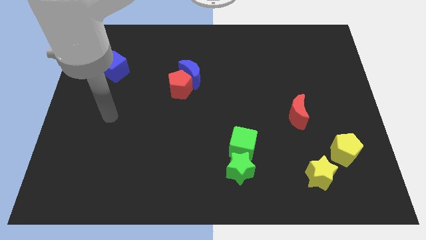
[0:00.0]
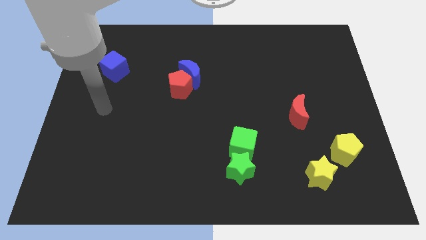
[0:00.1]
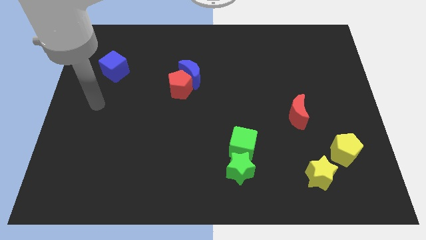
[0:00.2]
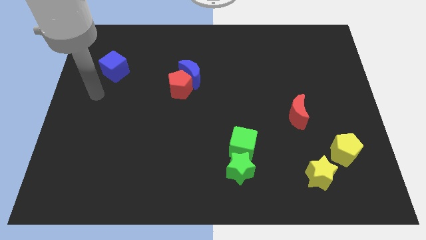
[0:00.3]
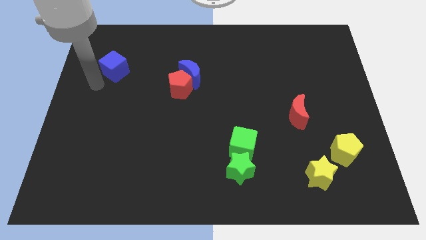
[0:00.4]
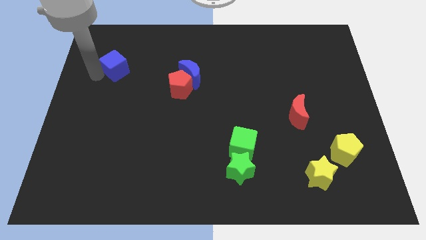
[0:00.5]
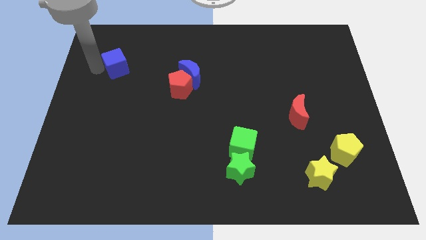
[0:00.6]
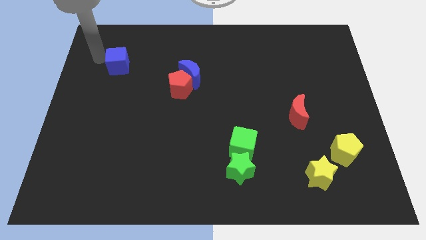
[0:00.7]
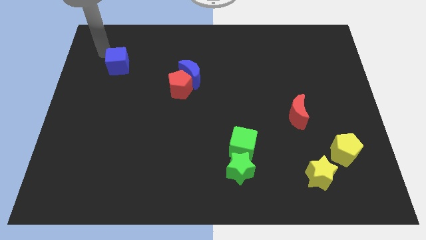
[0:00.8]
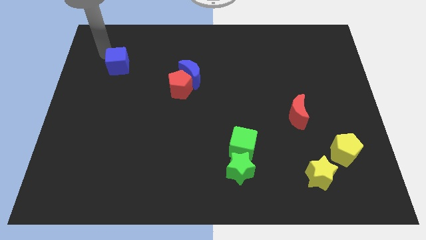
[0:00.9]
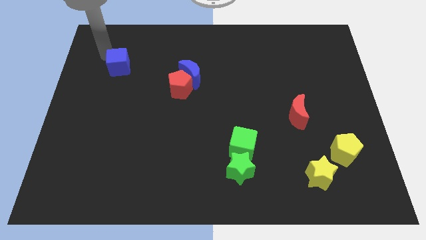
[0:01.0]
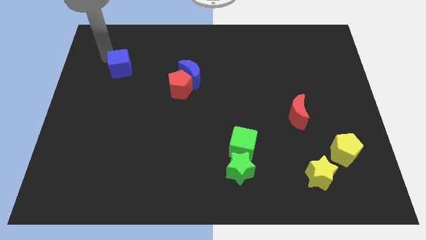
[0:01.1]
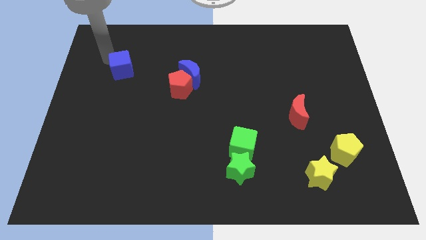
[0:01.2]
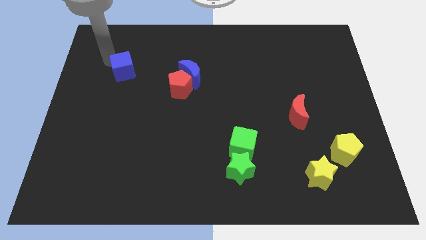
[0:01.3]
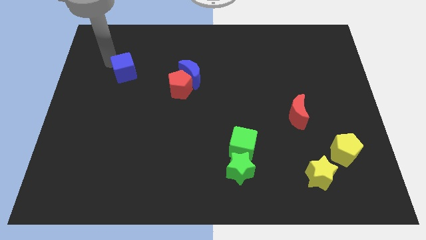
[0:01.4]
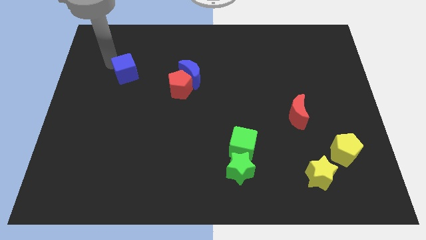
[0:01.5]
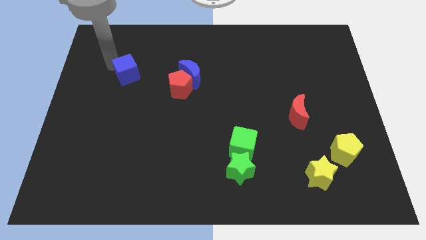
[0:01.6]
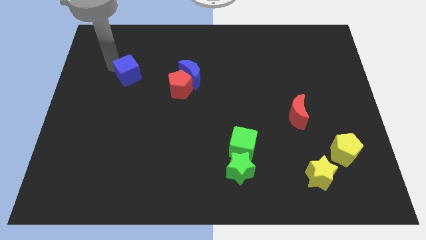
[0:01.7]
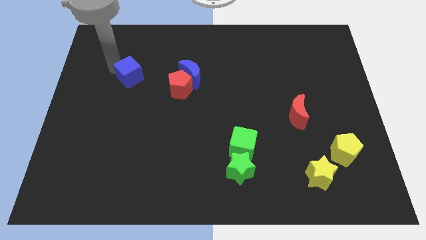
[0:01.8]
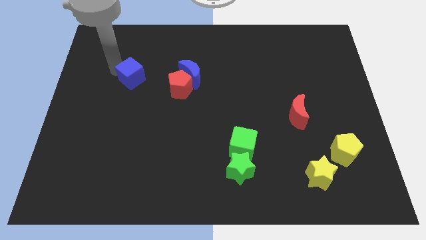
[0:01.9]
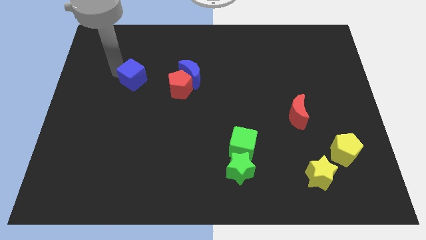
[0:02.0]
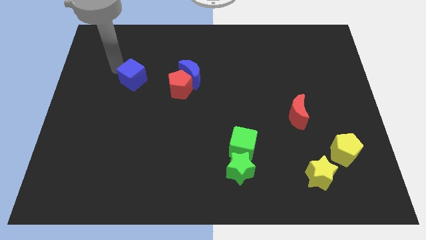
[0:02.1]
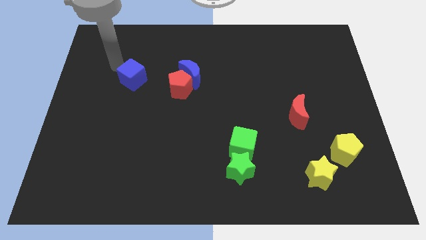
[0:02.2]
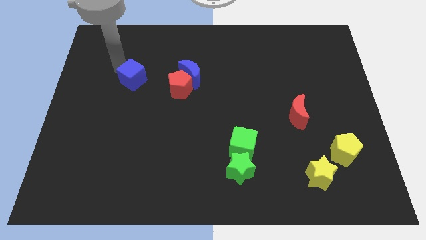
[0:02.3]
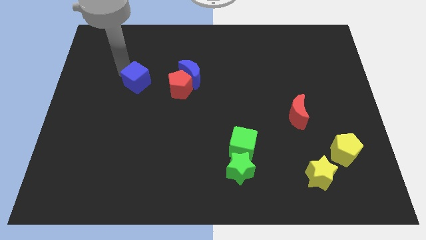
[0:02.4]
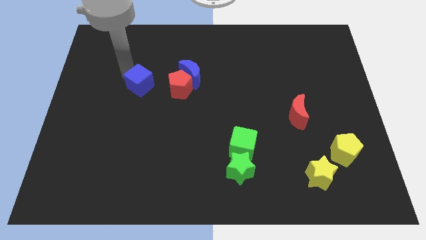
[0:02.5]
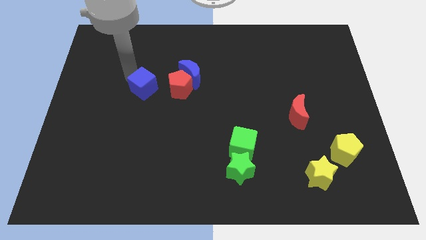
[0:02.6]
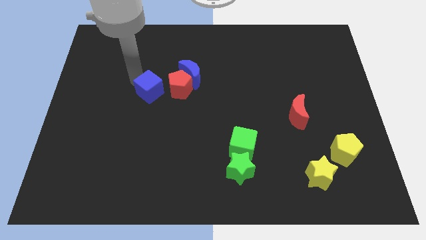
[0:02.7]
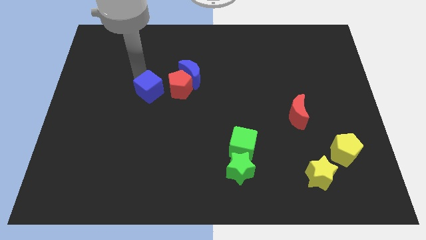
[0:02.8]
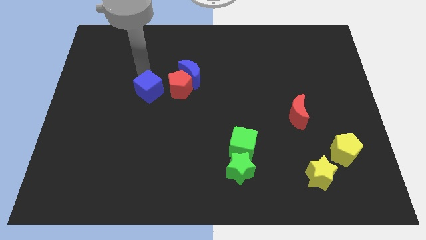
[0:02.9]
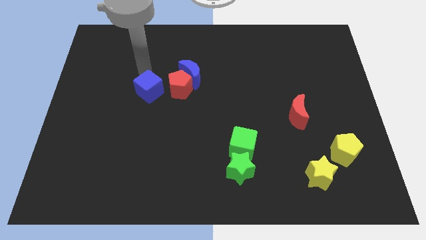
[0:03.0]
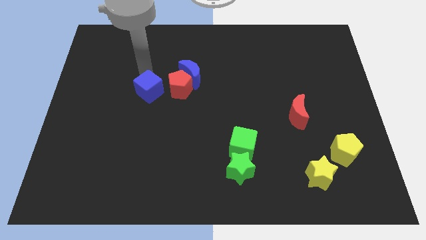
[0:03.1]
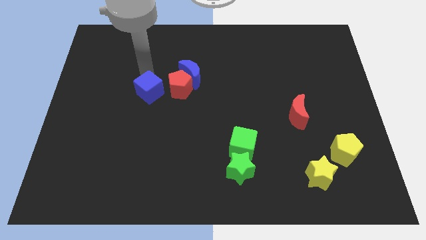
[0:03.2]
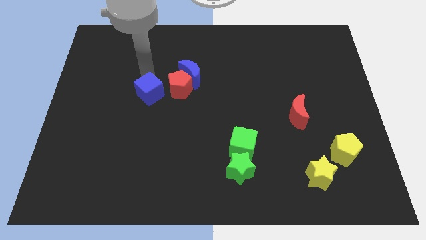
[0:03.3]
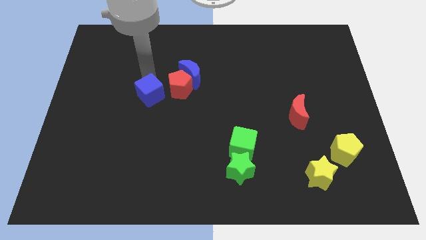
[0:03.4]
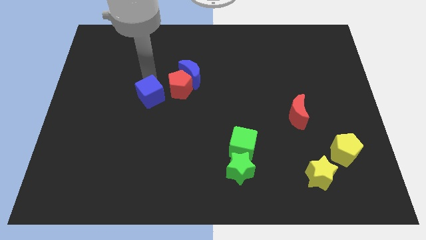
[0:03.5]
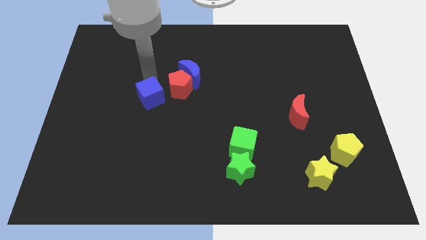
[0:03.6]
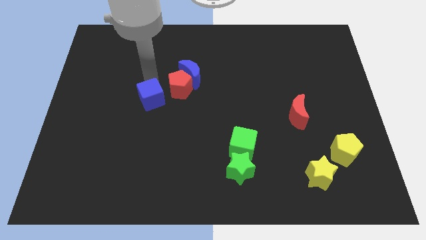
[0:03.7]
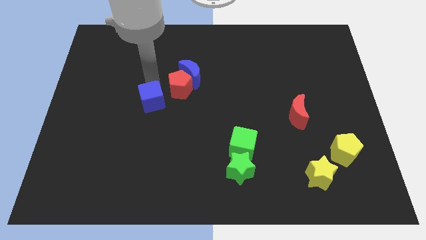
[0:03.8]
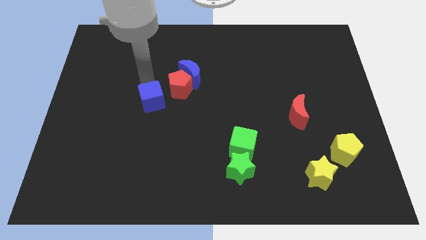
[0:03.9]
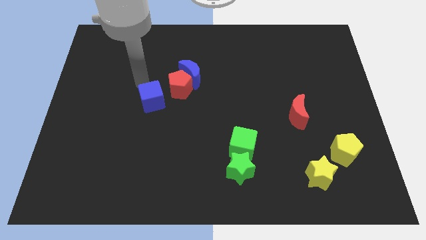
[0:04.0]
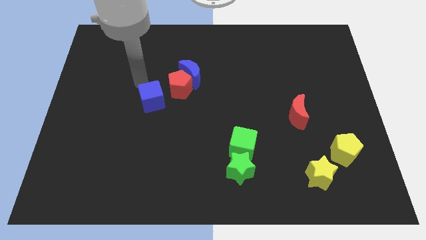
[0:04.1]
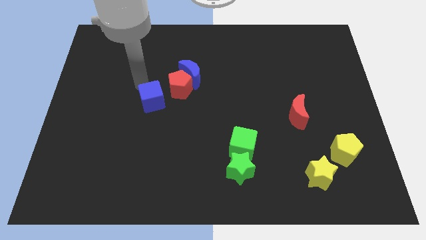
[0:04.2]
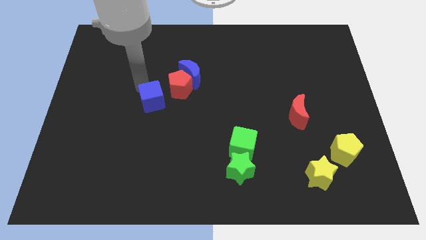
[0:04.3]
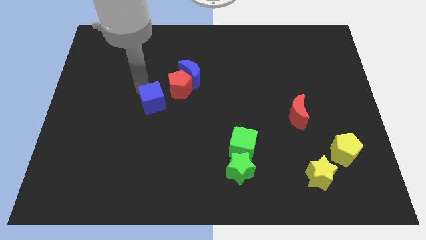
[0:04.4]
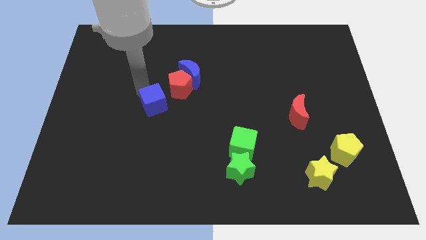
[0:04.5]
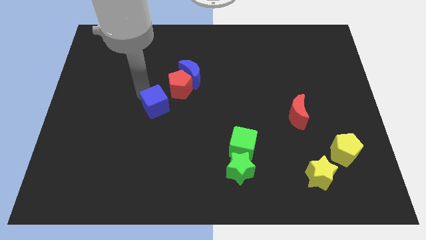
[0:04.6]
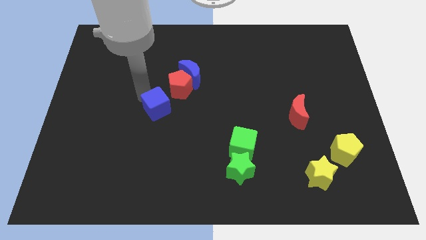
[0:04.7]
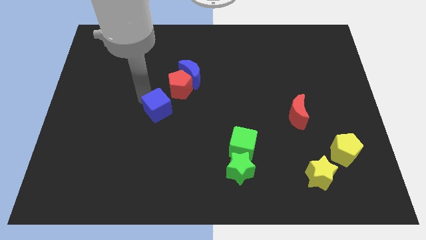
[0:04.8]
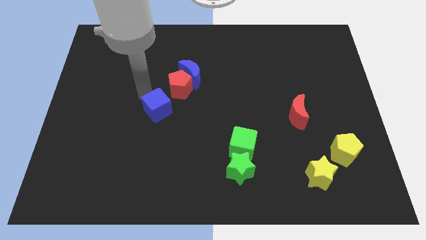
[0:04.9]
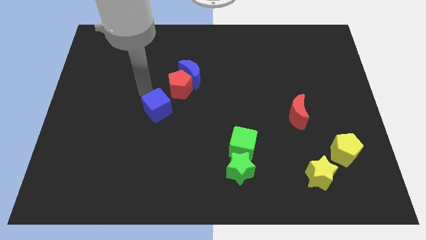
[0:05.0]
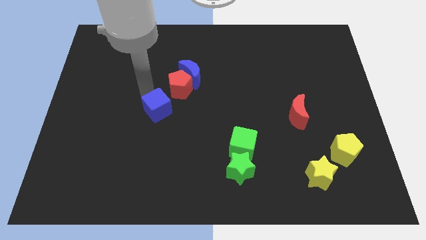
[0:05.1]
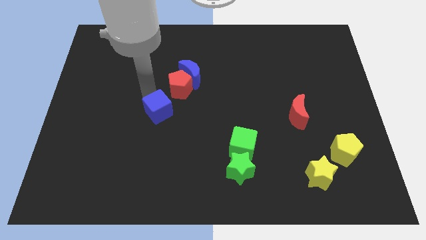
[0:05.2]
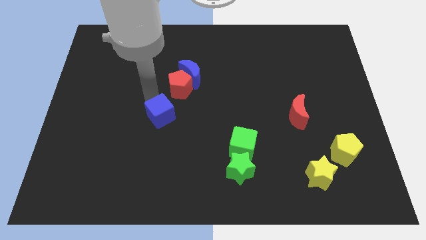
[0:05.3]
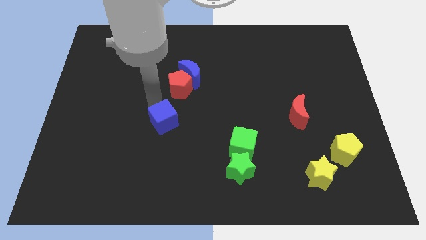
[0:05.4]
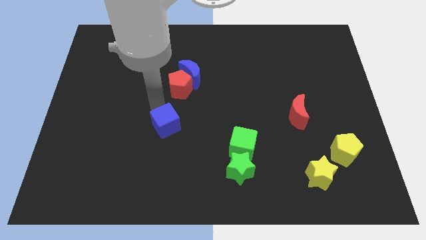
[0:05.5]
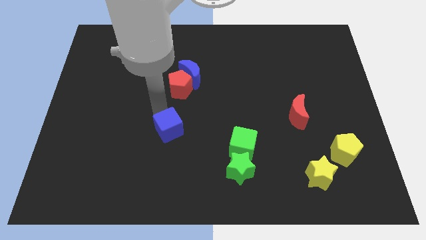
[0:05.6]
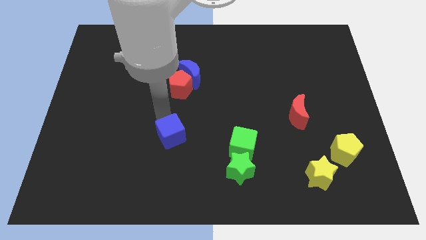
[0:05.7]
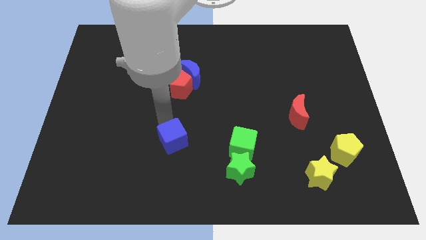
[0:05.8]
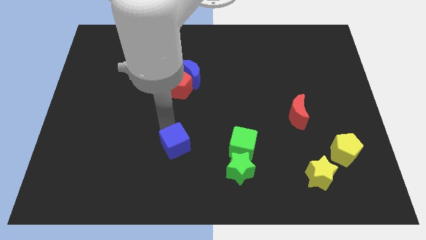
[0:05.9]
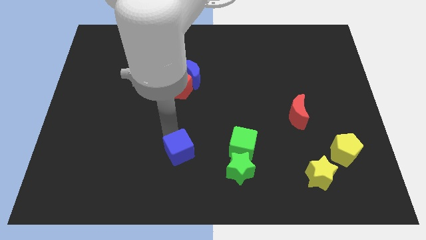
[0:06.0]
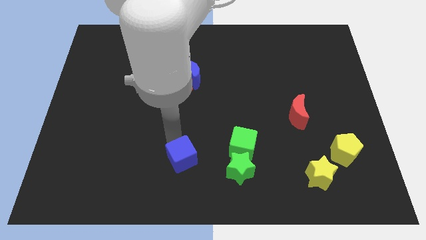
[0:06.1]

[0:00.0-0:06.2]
put the blue cube to the left of the green star
